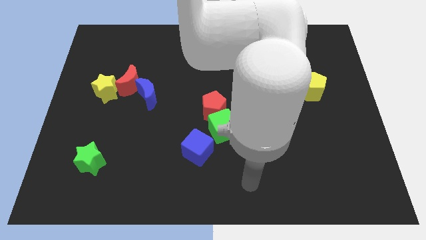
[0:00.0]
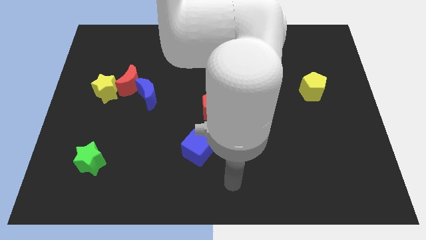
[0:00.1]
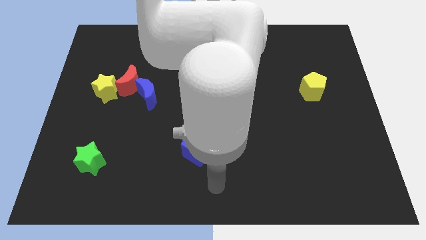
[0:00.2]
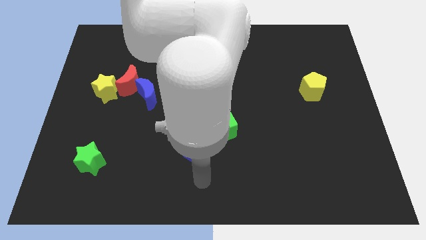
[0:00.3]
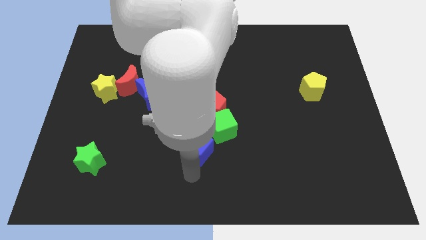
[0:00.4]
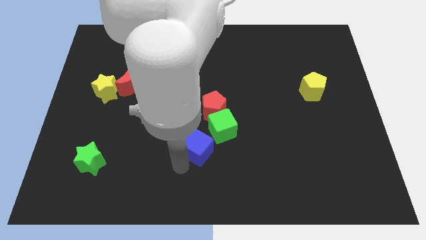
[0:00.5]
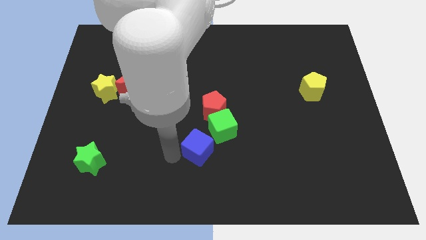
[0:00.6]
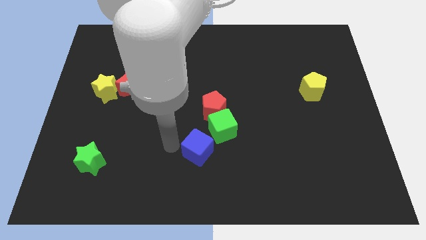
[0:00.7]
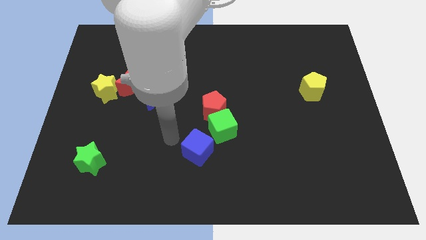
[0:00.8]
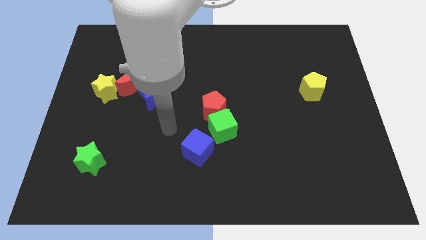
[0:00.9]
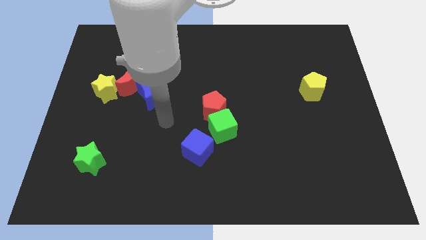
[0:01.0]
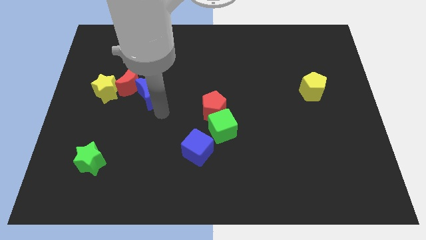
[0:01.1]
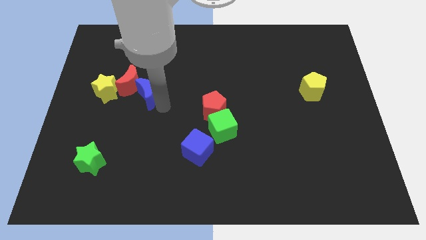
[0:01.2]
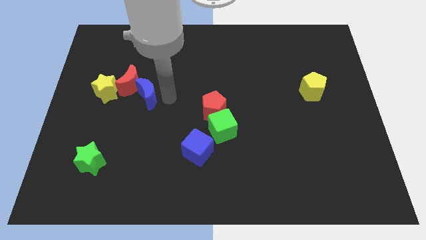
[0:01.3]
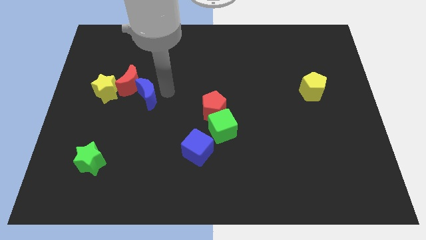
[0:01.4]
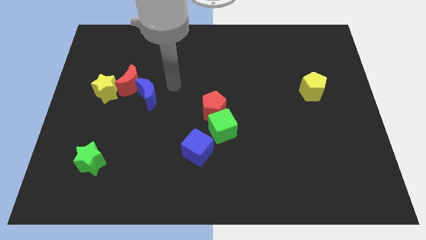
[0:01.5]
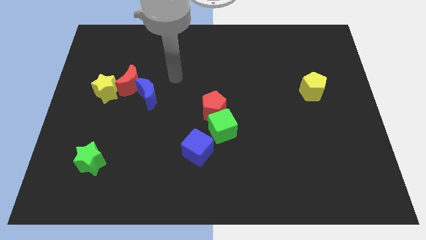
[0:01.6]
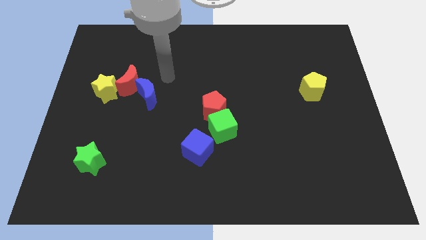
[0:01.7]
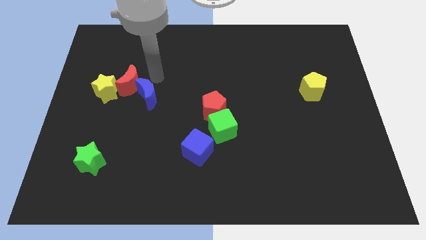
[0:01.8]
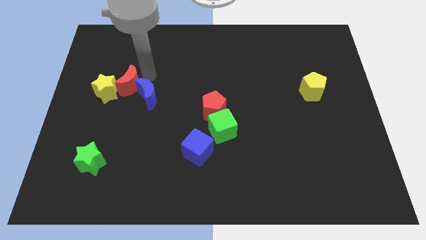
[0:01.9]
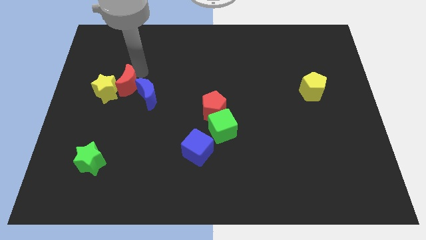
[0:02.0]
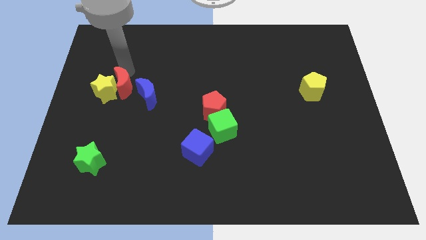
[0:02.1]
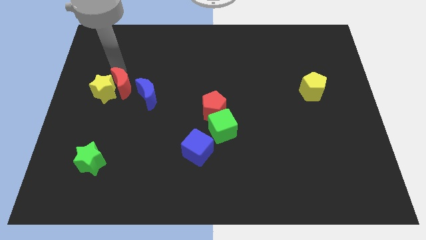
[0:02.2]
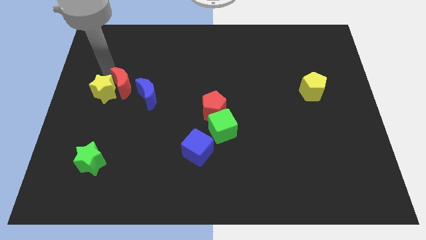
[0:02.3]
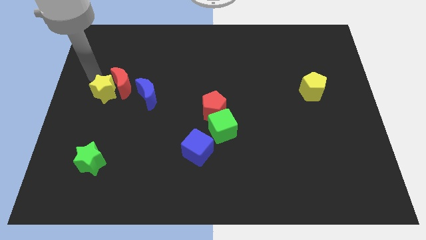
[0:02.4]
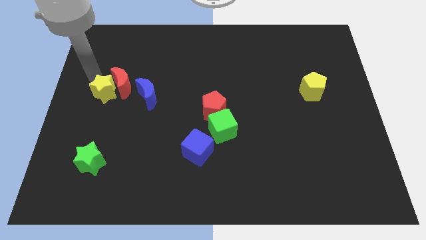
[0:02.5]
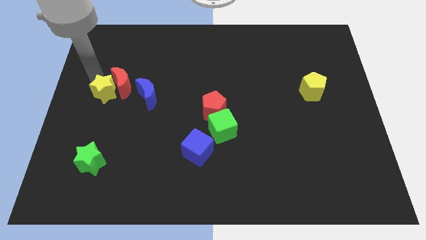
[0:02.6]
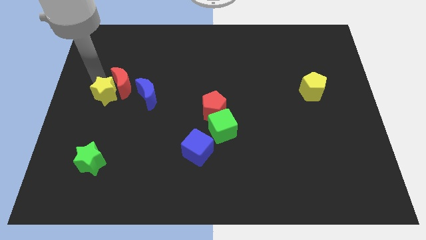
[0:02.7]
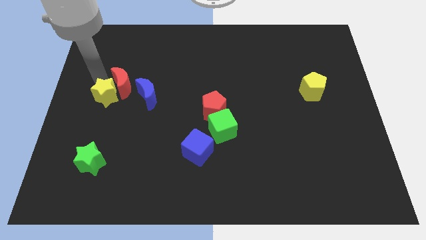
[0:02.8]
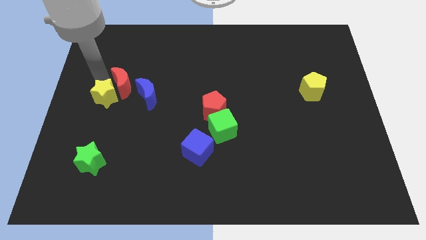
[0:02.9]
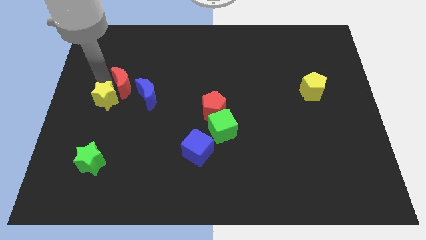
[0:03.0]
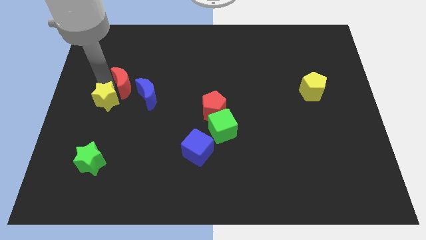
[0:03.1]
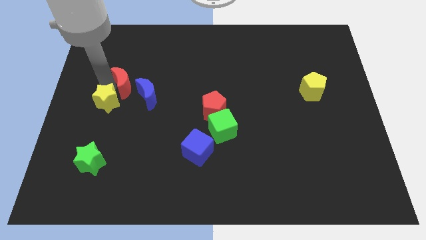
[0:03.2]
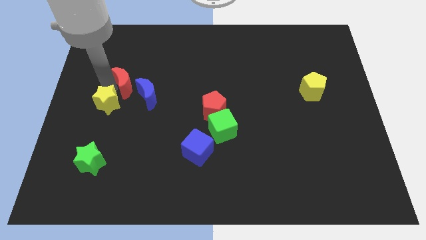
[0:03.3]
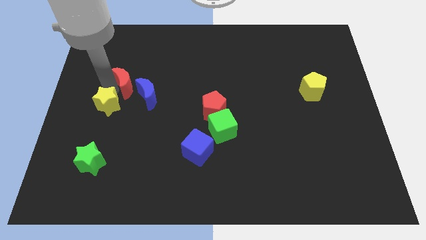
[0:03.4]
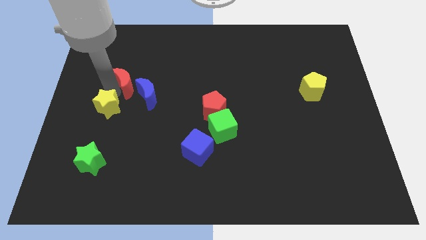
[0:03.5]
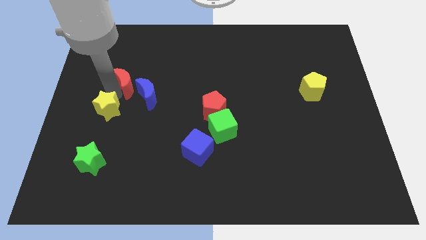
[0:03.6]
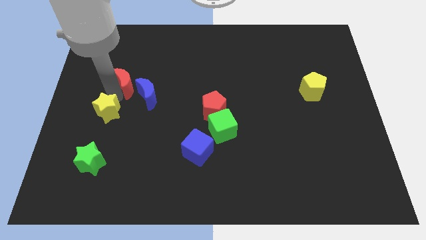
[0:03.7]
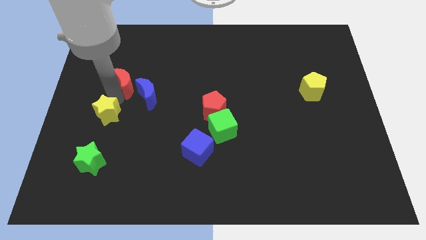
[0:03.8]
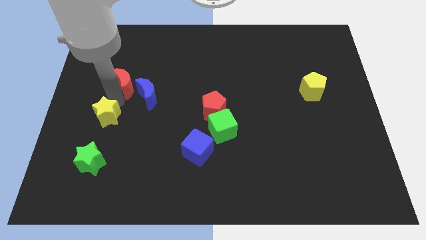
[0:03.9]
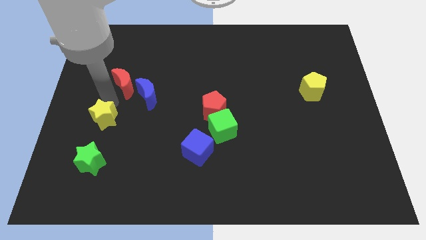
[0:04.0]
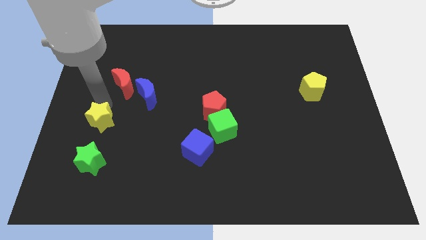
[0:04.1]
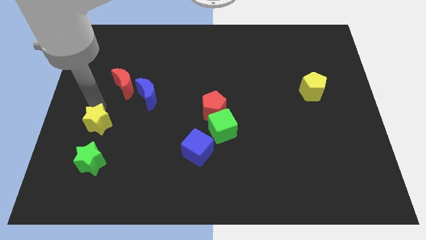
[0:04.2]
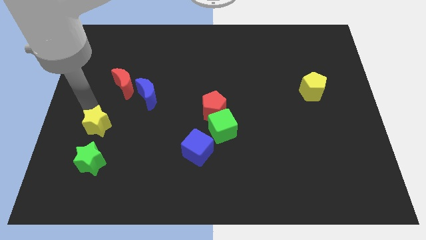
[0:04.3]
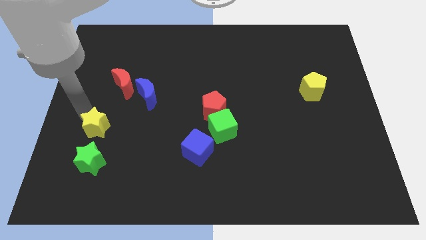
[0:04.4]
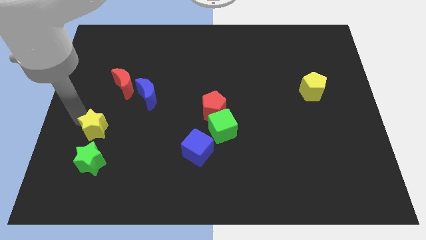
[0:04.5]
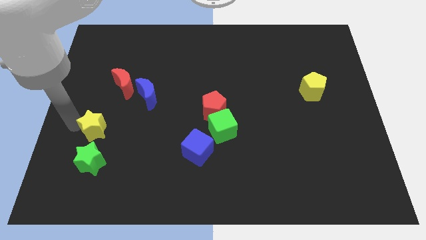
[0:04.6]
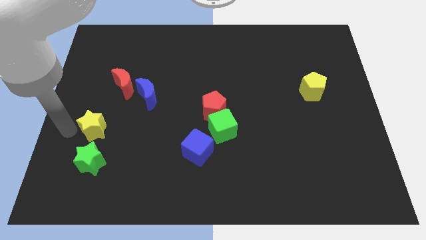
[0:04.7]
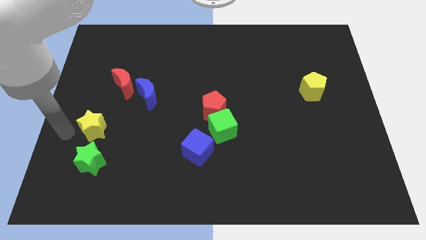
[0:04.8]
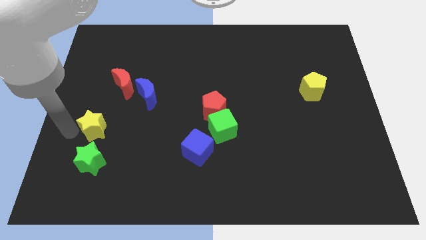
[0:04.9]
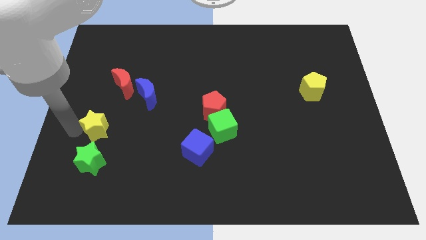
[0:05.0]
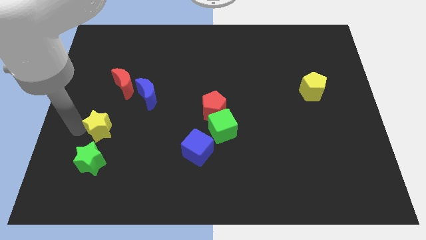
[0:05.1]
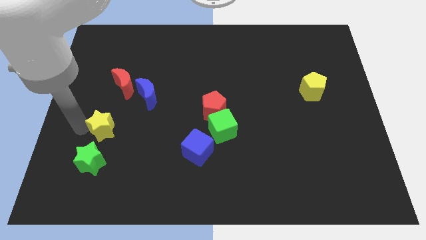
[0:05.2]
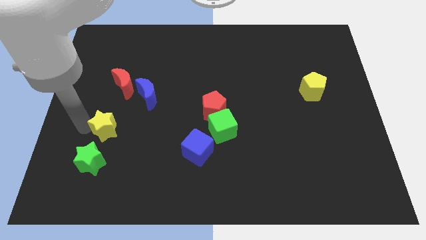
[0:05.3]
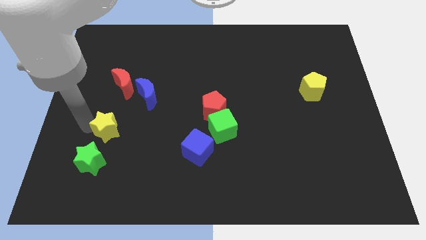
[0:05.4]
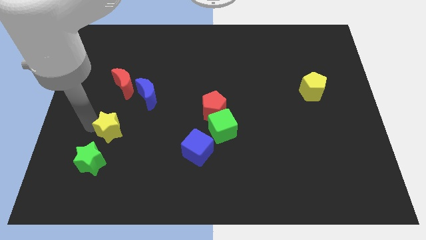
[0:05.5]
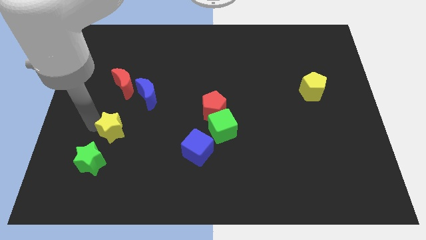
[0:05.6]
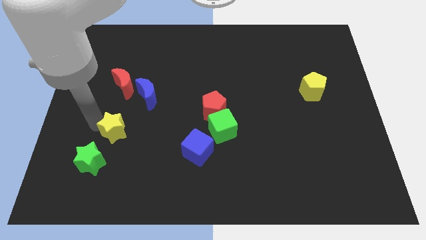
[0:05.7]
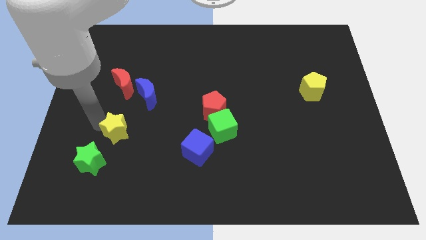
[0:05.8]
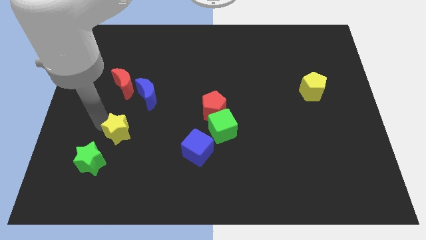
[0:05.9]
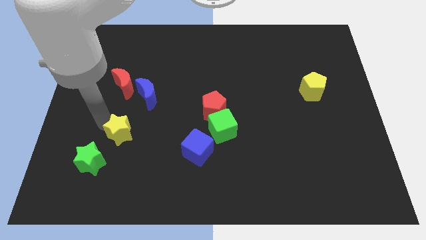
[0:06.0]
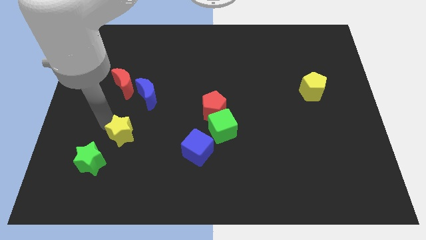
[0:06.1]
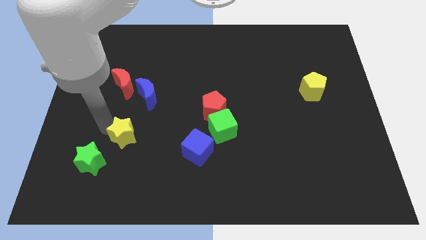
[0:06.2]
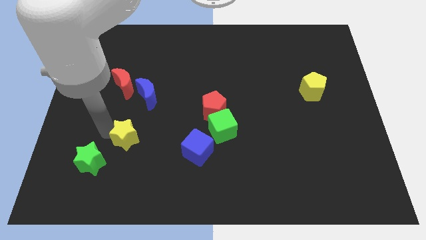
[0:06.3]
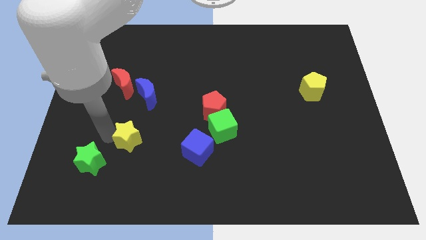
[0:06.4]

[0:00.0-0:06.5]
slide the yellow star to the left side of the blue cube

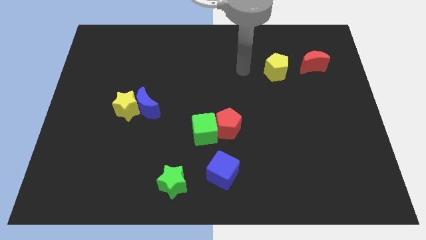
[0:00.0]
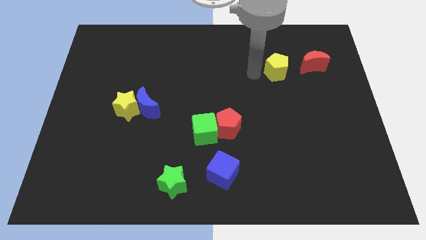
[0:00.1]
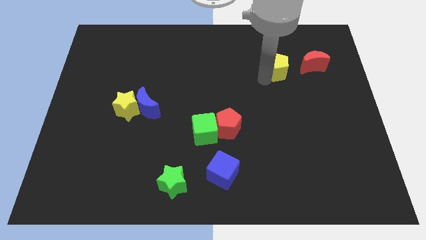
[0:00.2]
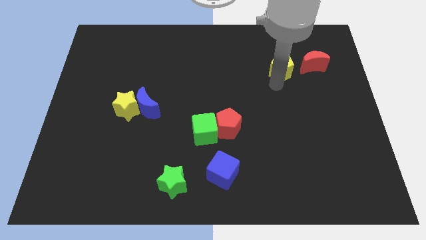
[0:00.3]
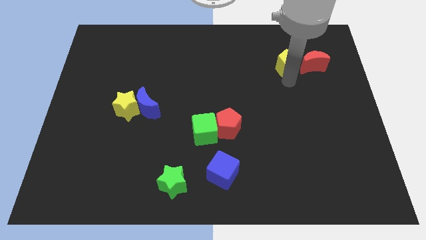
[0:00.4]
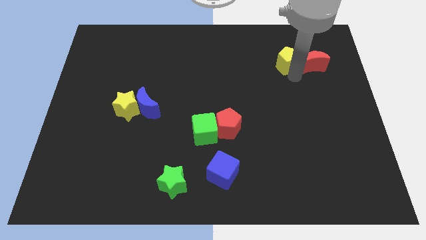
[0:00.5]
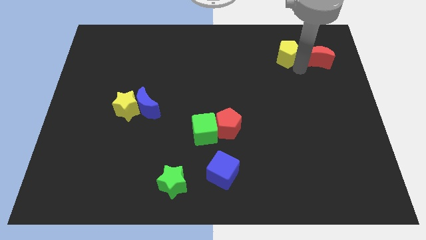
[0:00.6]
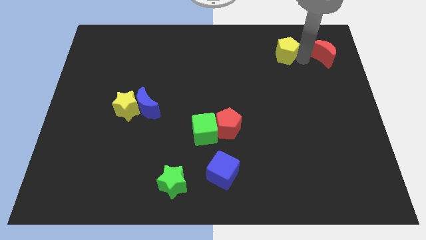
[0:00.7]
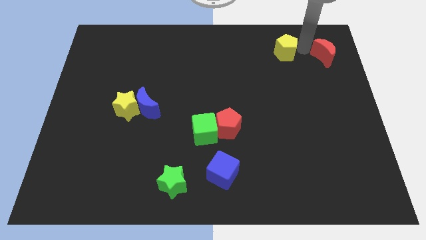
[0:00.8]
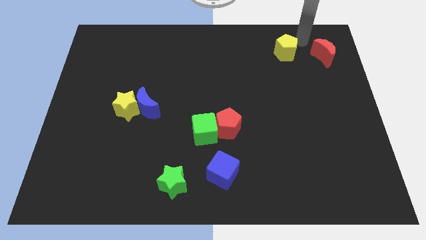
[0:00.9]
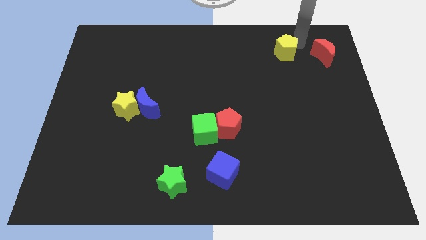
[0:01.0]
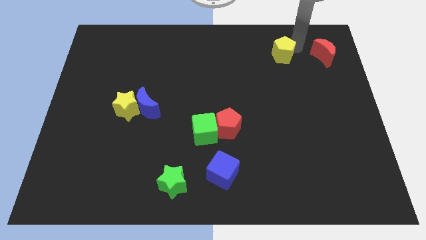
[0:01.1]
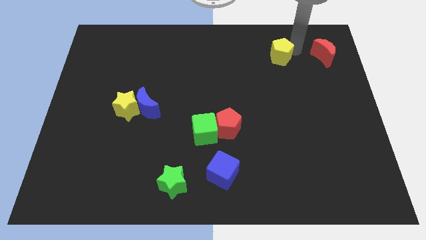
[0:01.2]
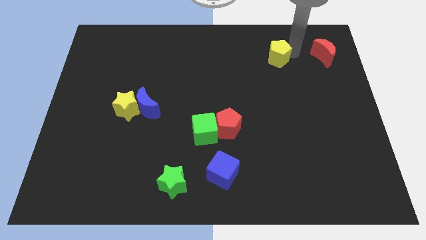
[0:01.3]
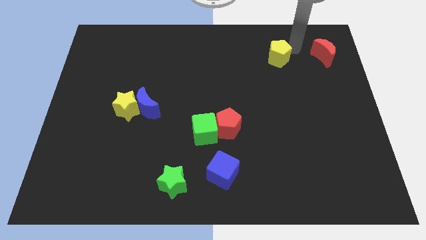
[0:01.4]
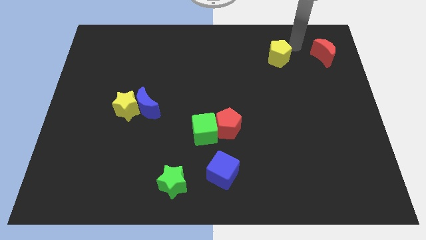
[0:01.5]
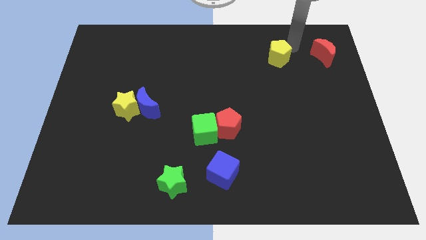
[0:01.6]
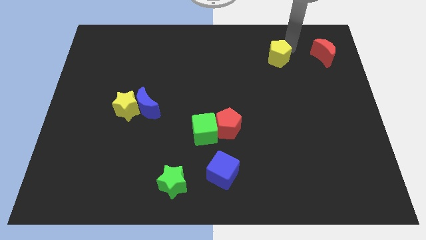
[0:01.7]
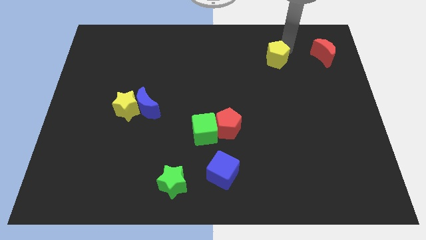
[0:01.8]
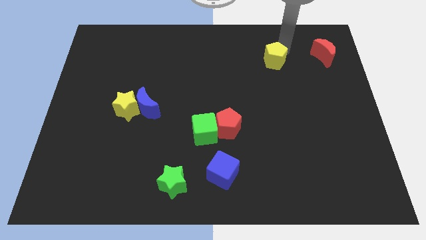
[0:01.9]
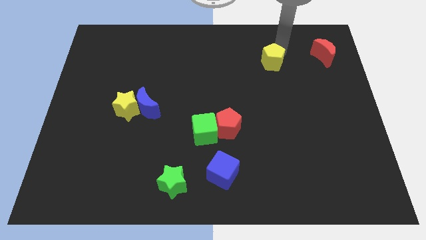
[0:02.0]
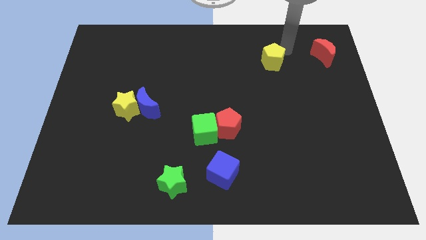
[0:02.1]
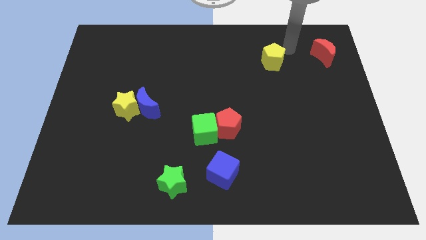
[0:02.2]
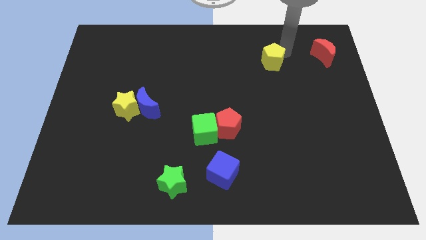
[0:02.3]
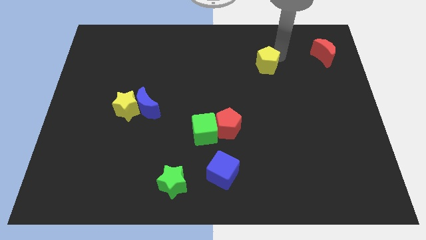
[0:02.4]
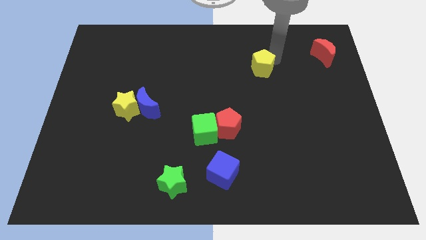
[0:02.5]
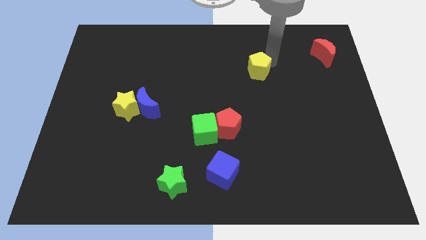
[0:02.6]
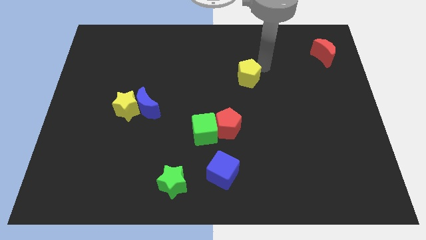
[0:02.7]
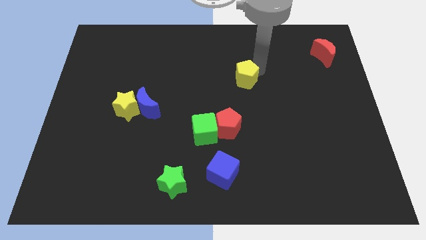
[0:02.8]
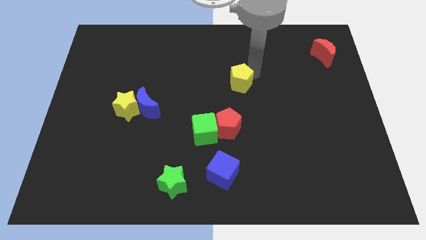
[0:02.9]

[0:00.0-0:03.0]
push the yellow pentagon to the top of the red pentagon
